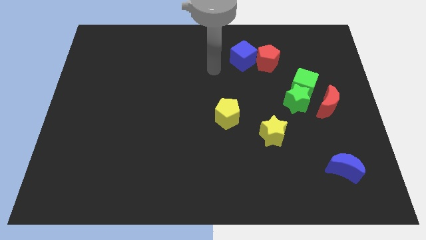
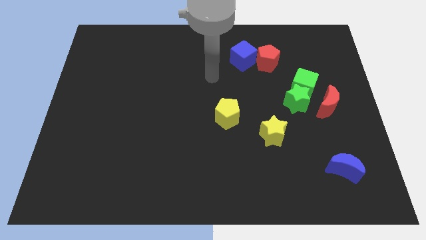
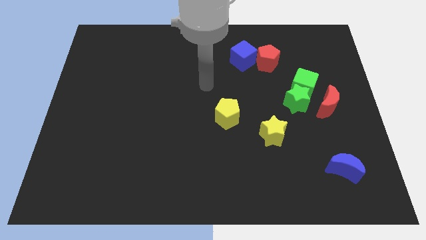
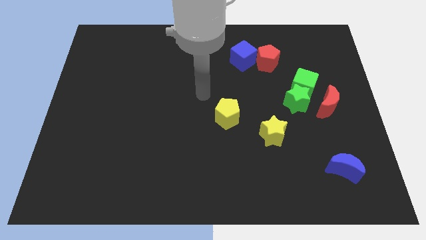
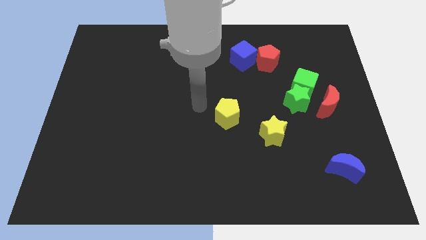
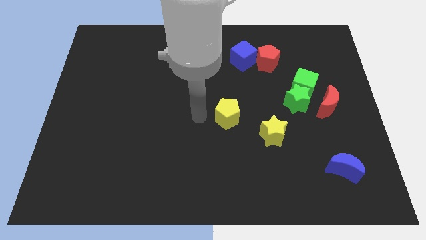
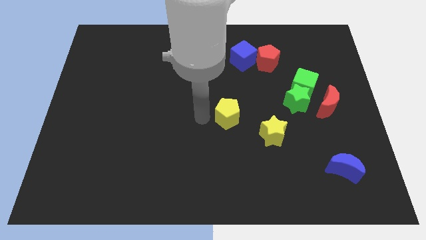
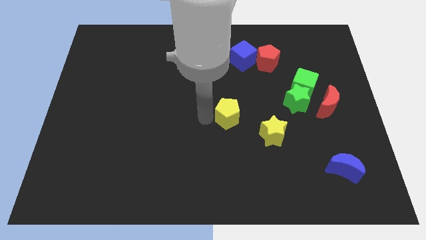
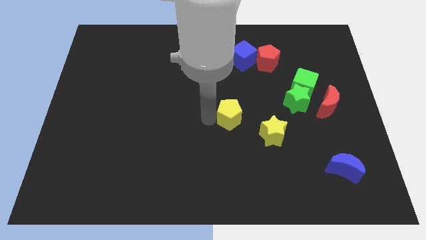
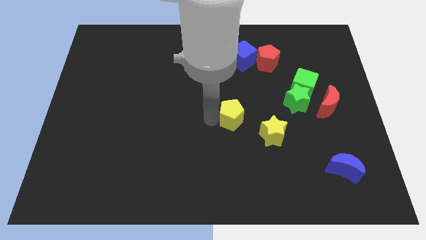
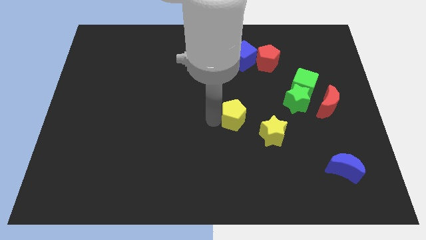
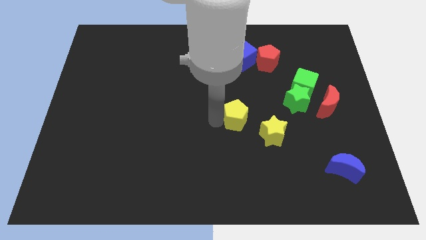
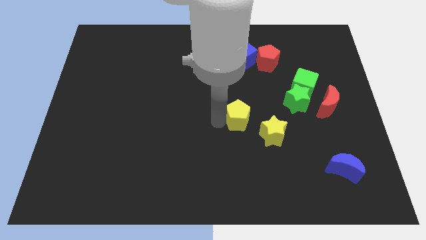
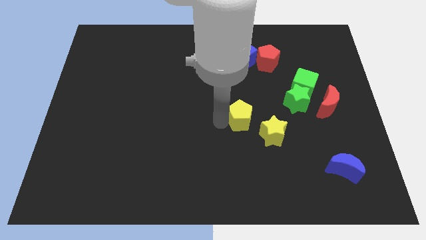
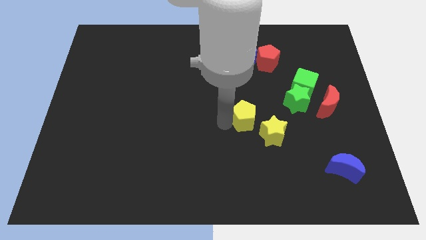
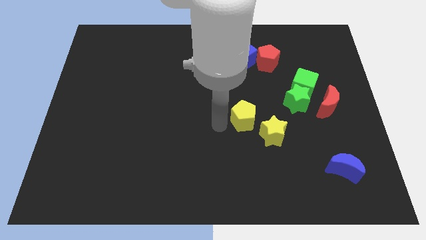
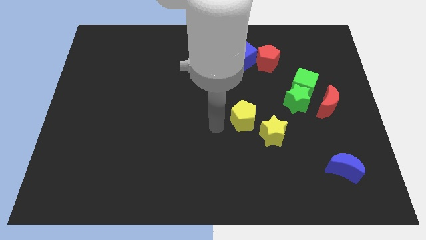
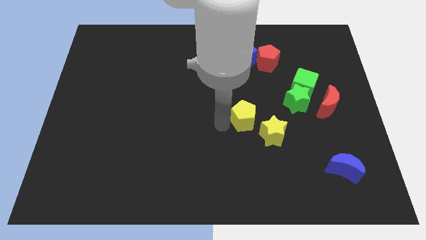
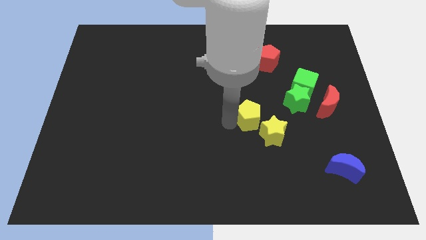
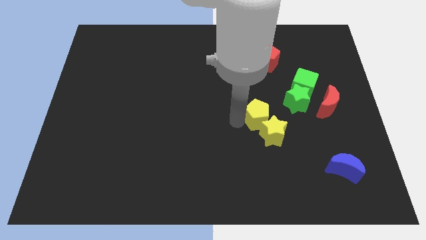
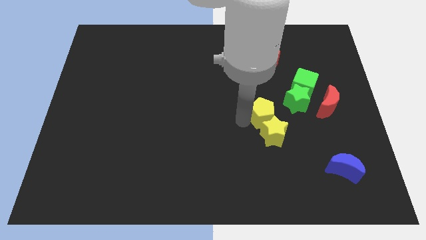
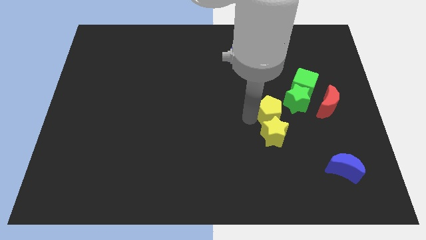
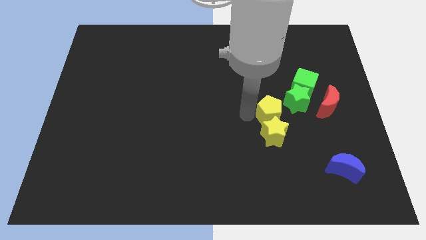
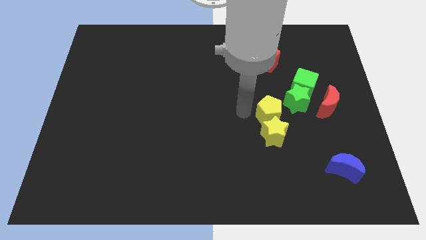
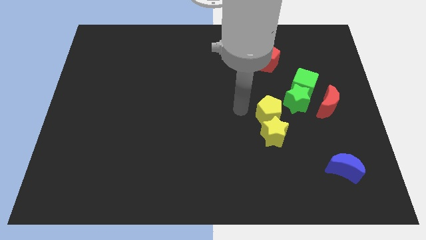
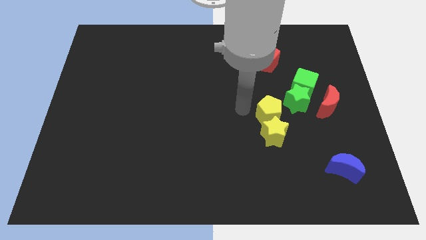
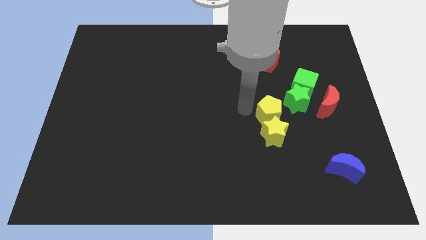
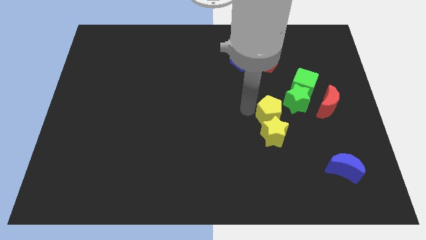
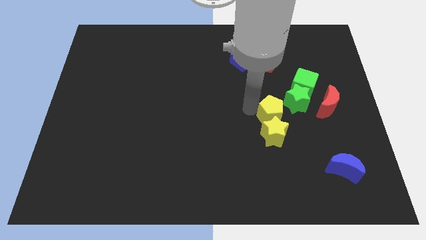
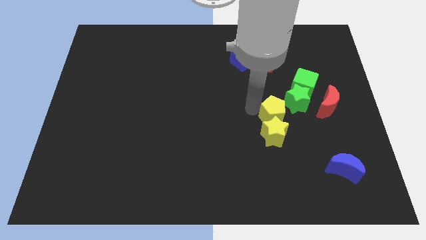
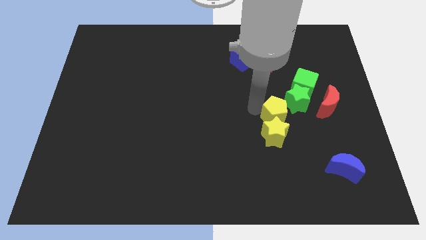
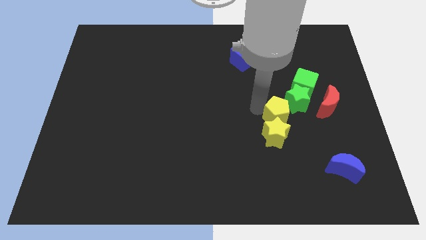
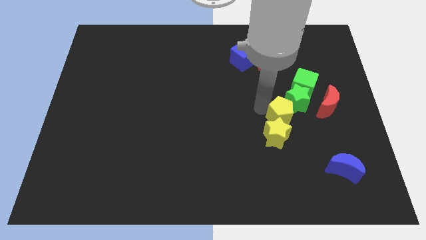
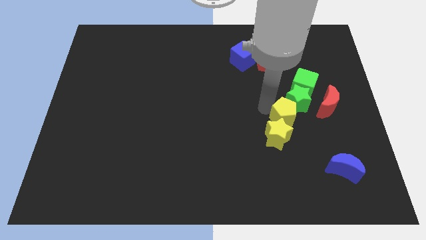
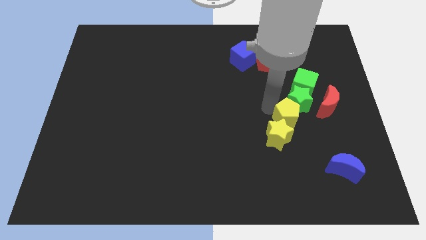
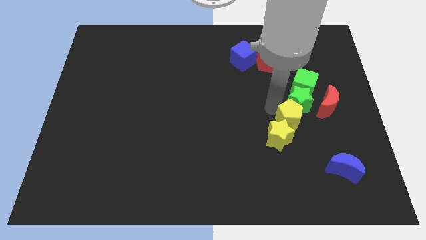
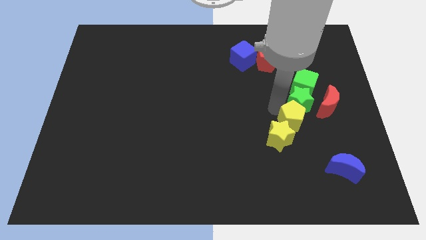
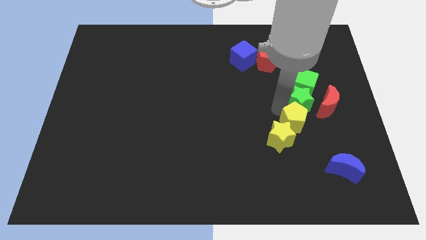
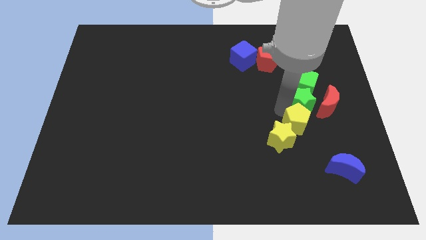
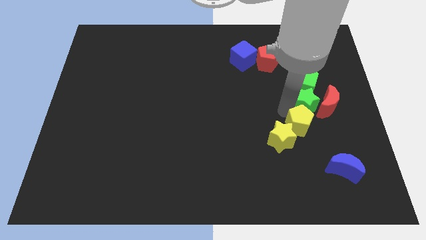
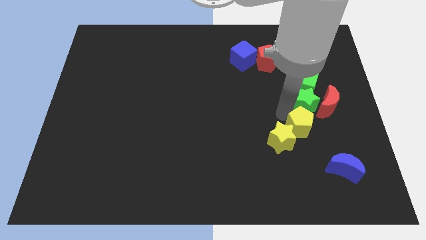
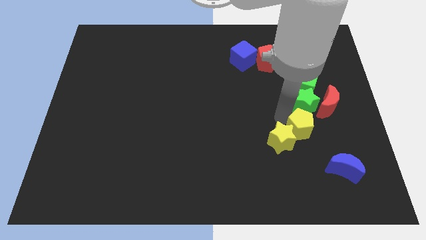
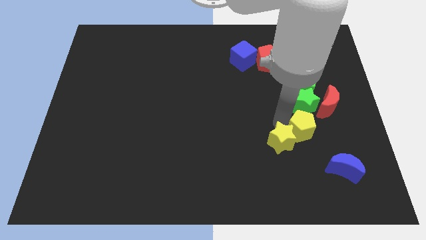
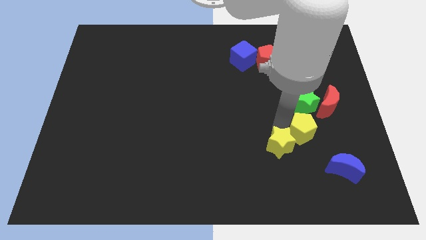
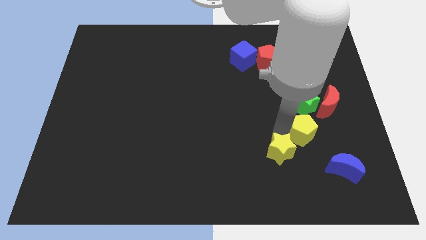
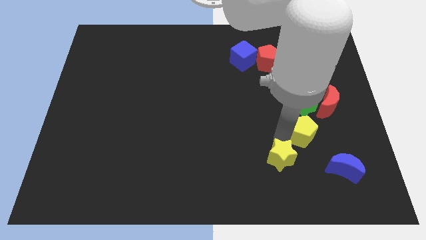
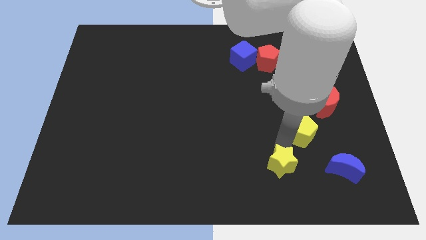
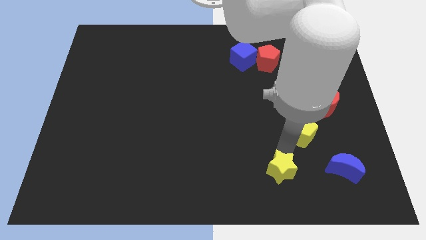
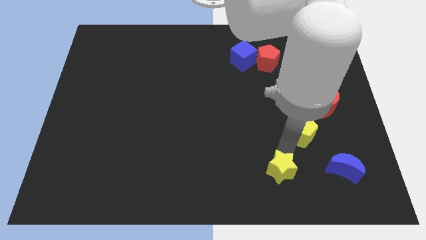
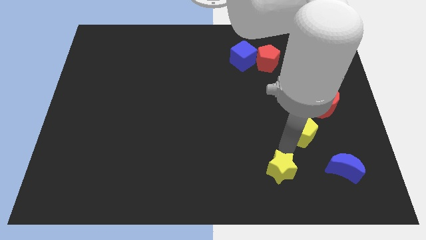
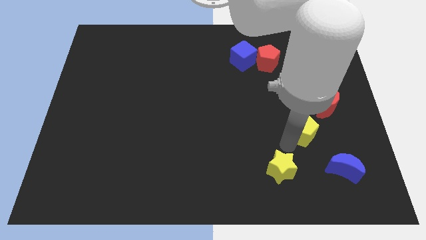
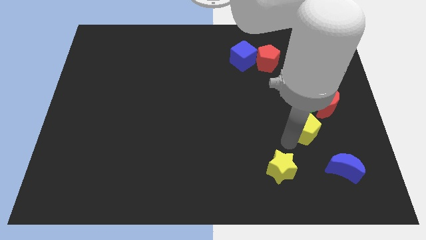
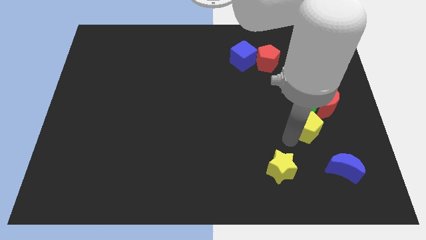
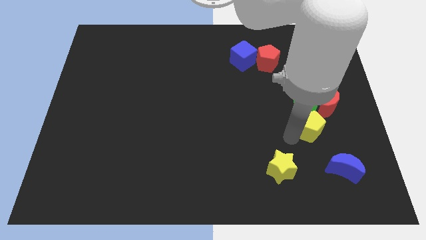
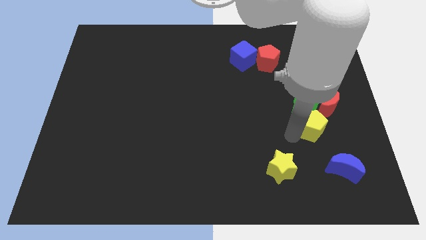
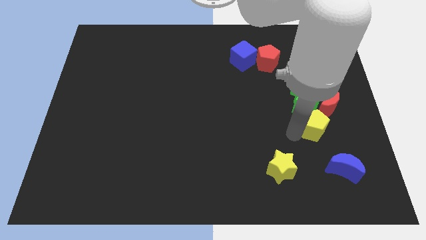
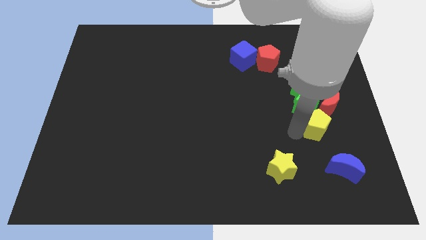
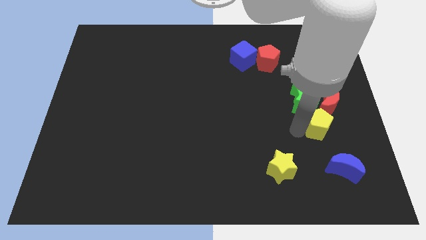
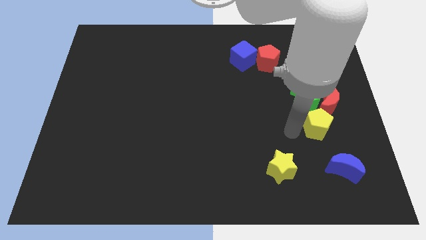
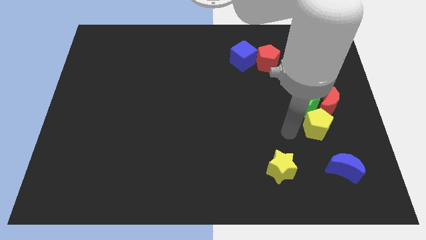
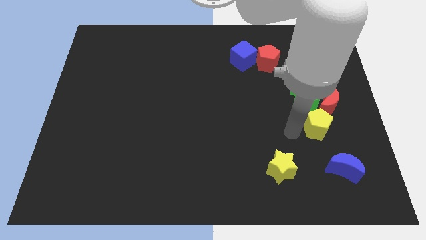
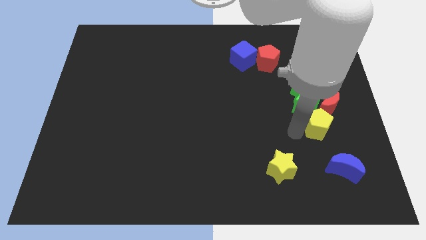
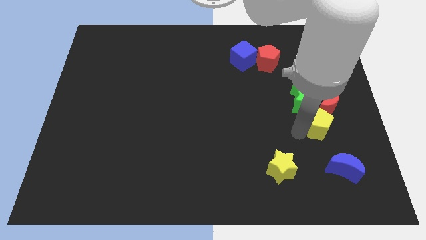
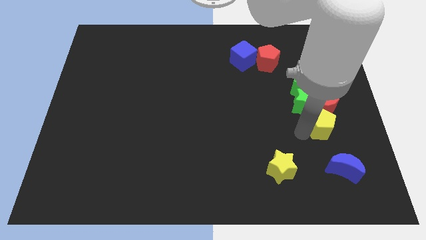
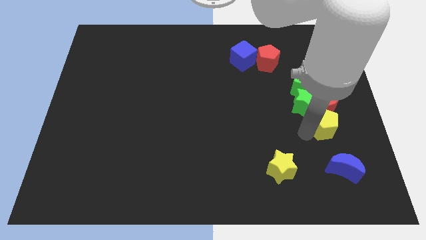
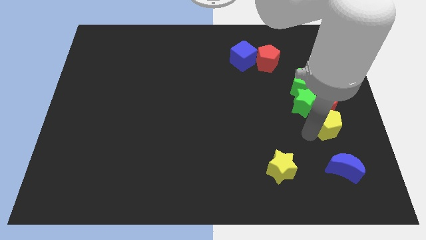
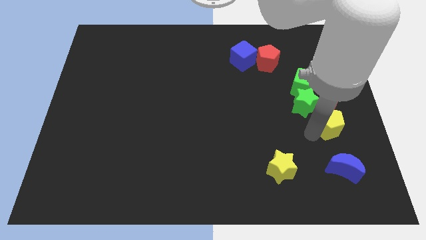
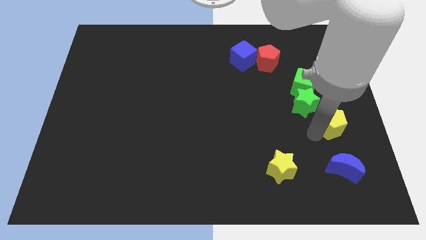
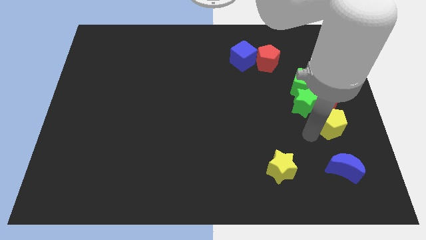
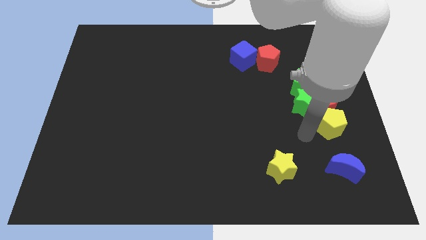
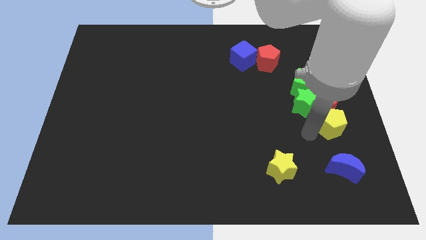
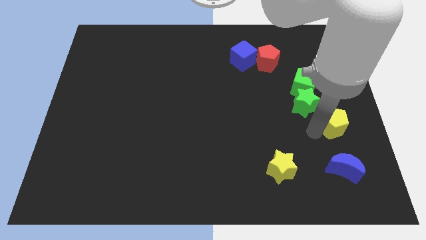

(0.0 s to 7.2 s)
push the yellow pentagon to the right side of the board

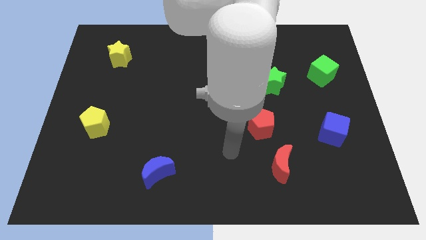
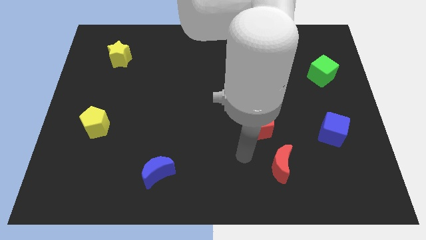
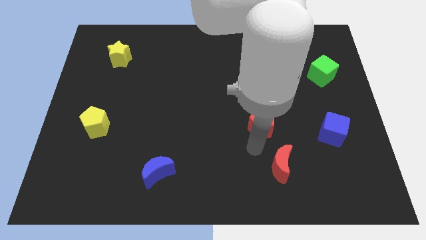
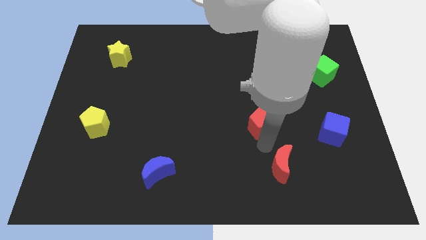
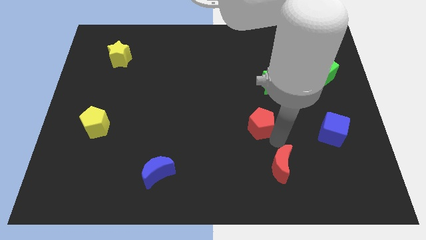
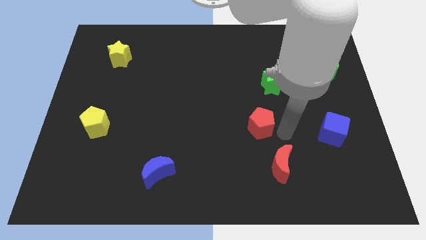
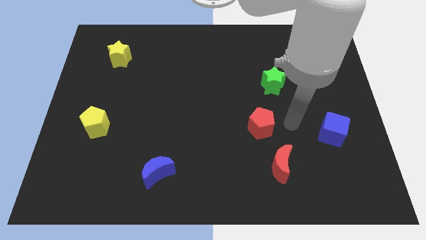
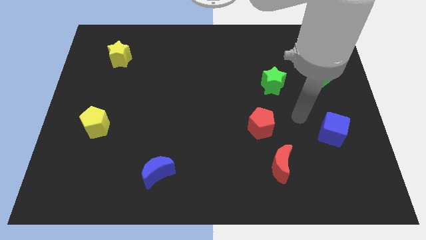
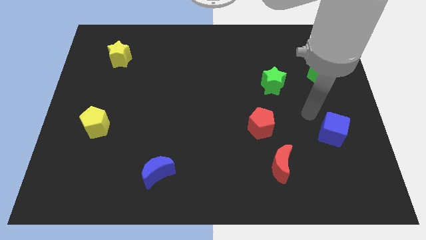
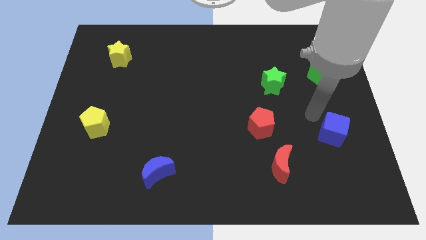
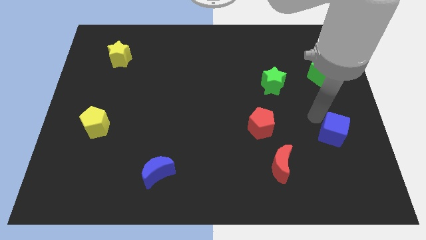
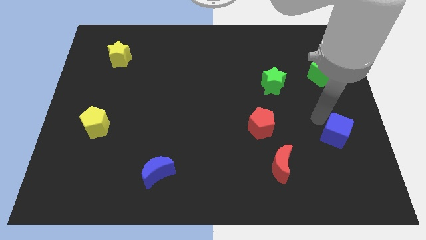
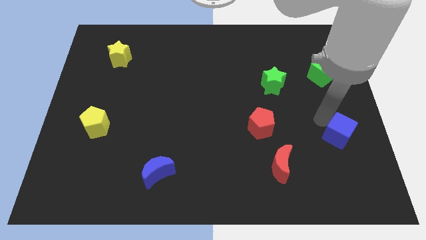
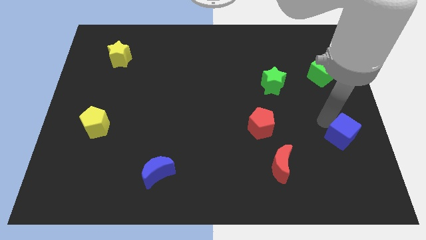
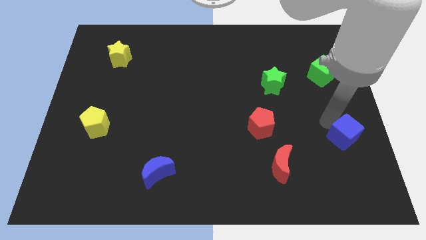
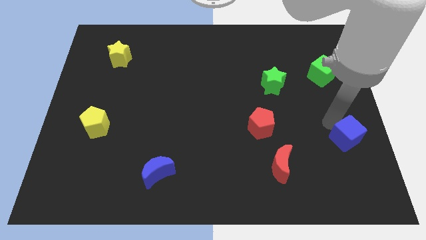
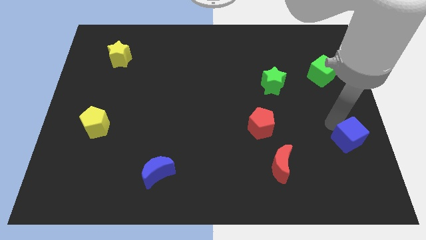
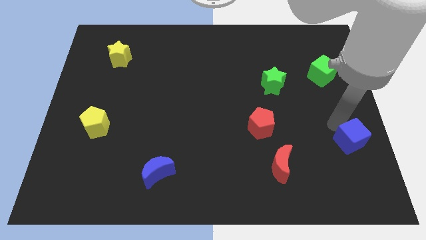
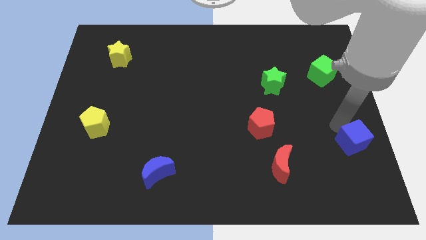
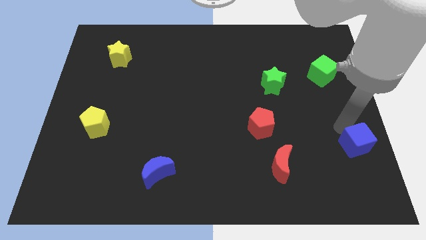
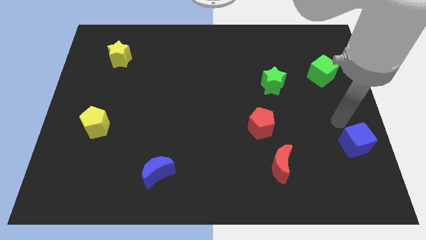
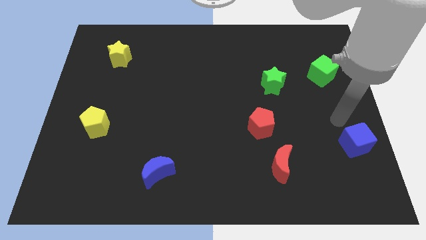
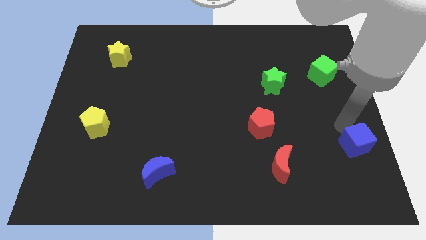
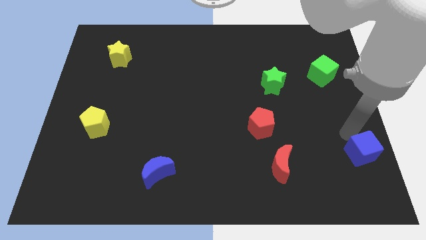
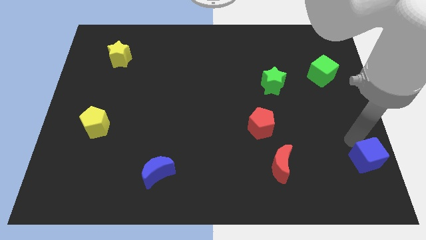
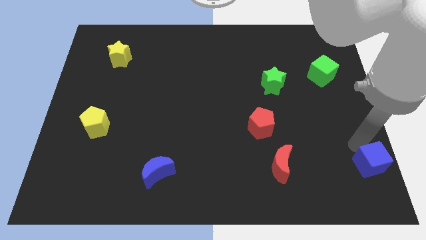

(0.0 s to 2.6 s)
push the blue cube to the bottom right
